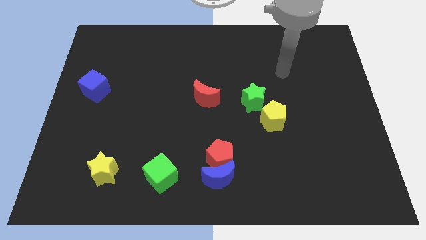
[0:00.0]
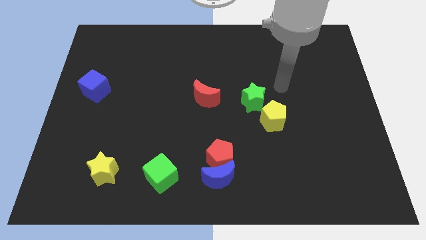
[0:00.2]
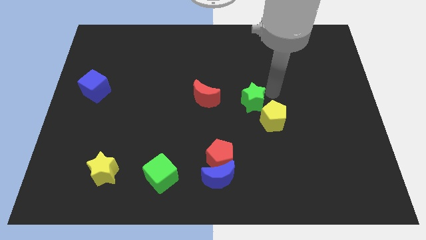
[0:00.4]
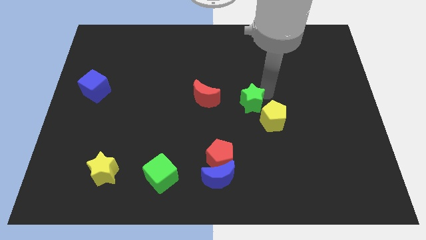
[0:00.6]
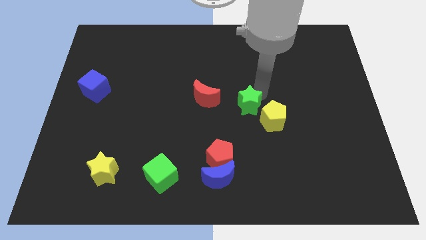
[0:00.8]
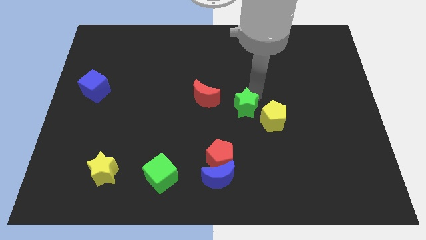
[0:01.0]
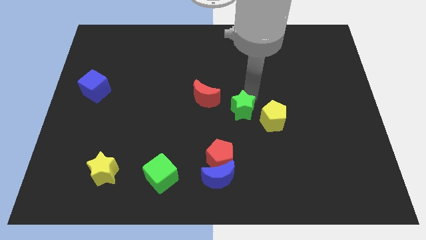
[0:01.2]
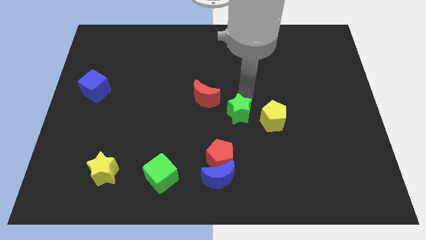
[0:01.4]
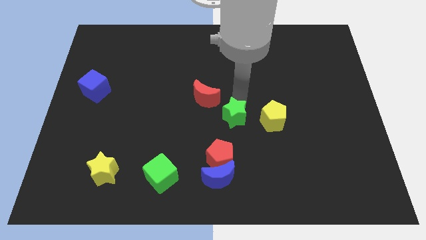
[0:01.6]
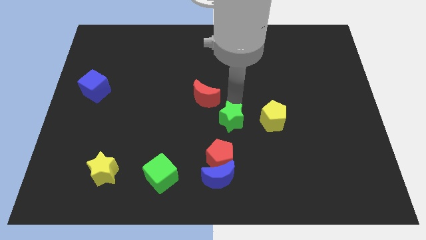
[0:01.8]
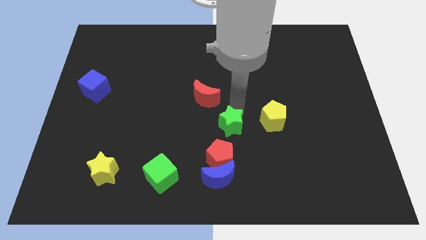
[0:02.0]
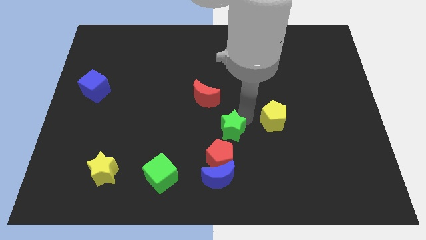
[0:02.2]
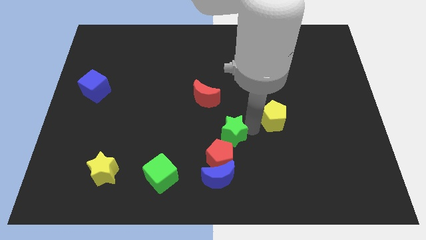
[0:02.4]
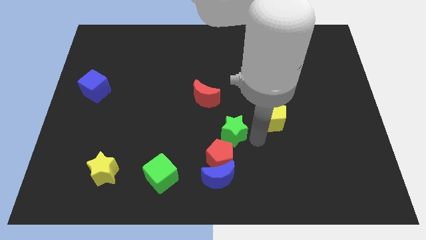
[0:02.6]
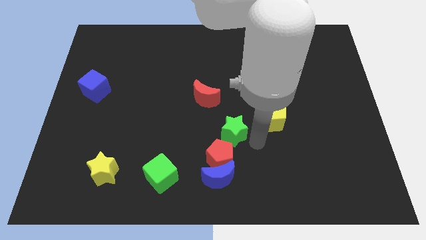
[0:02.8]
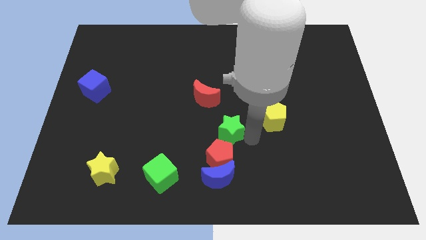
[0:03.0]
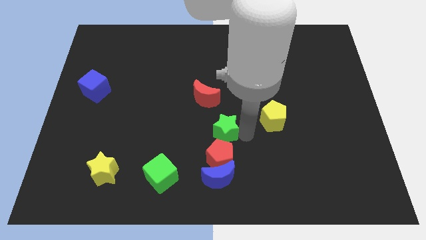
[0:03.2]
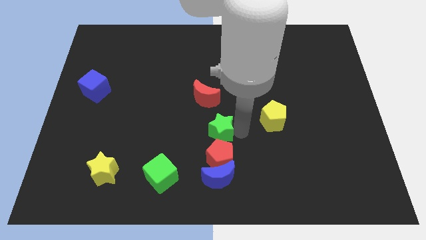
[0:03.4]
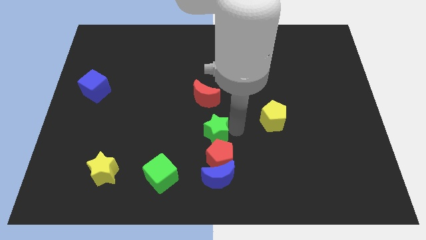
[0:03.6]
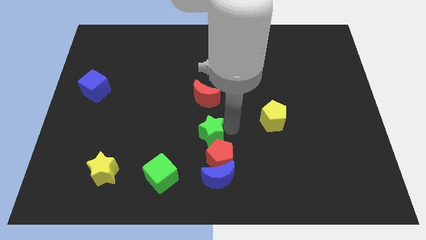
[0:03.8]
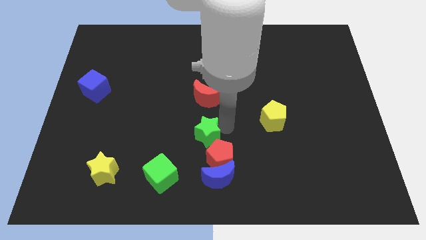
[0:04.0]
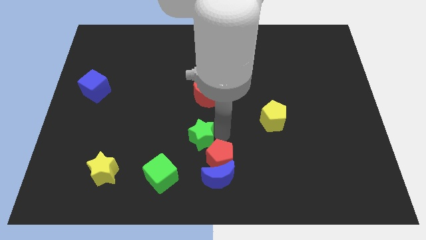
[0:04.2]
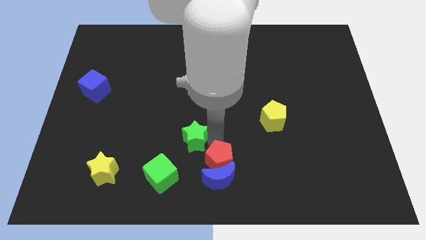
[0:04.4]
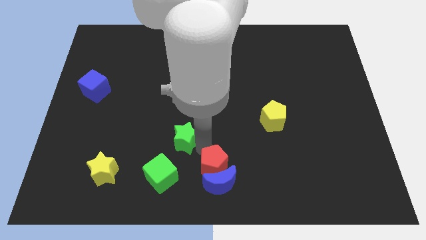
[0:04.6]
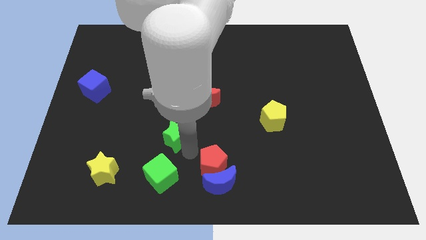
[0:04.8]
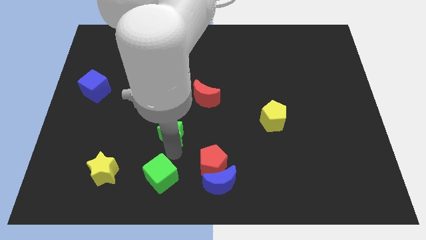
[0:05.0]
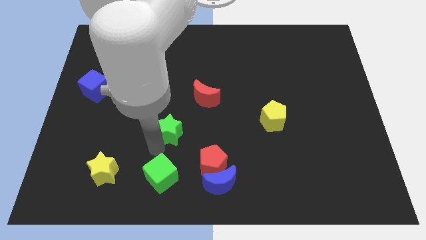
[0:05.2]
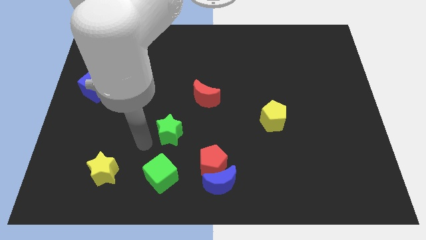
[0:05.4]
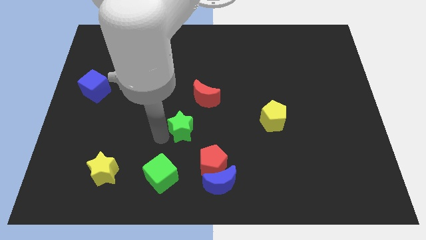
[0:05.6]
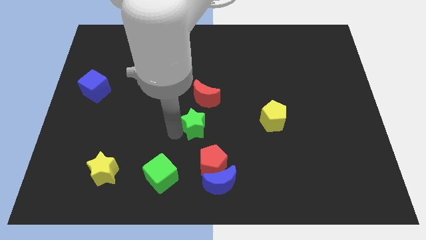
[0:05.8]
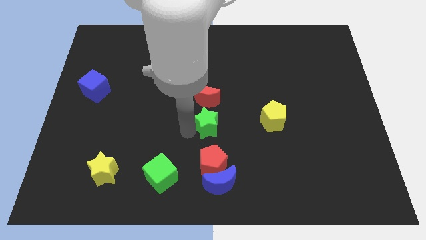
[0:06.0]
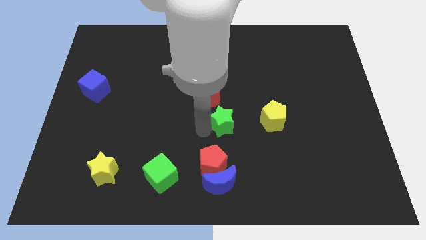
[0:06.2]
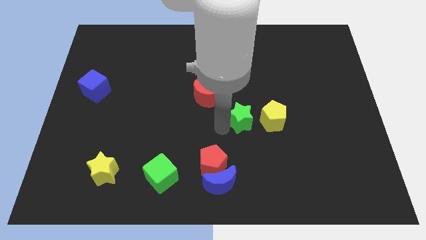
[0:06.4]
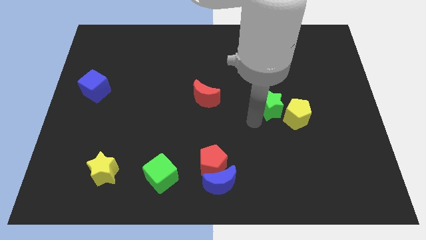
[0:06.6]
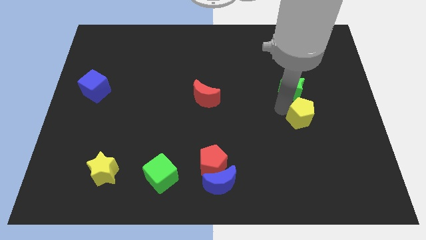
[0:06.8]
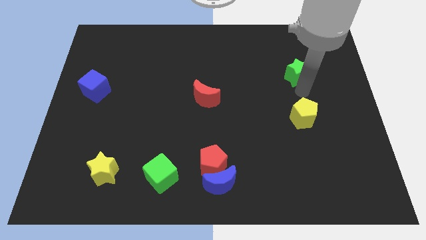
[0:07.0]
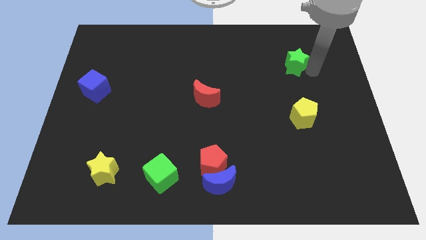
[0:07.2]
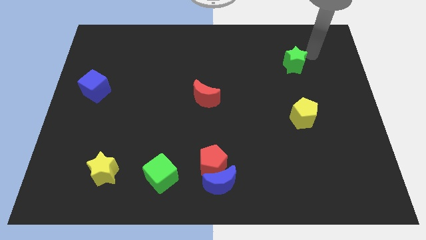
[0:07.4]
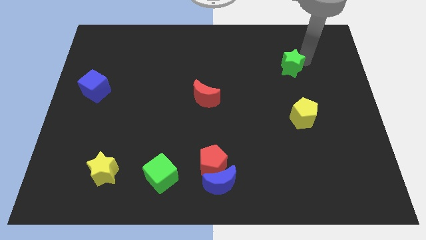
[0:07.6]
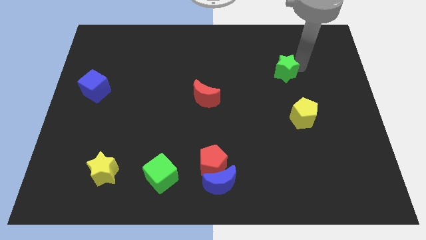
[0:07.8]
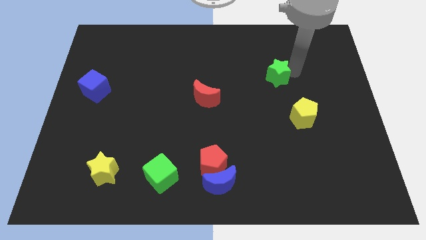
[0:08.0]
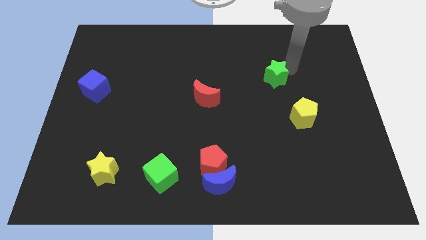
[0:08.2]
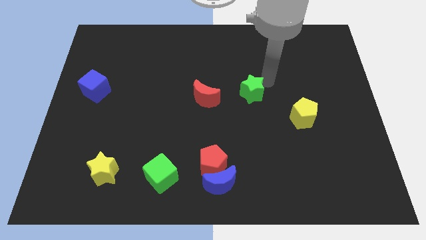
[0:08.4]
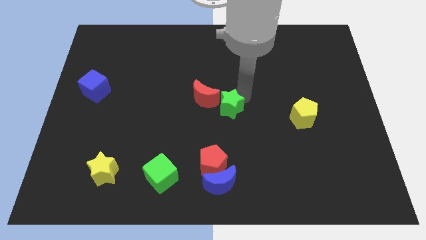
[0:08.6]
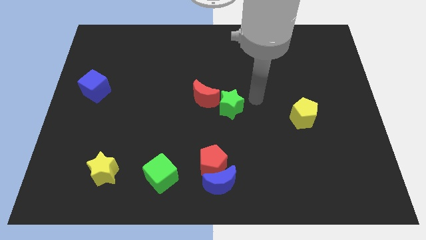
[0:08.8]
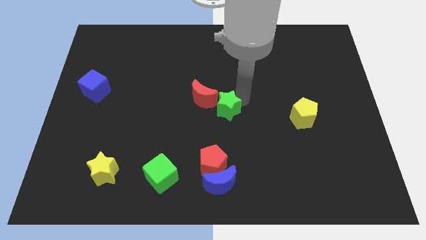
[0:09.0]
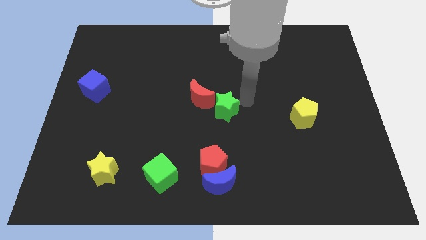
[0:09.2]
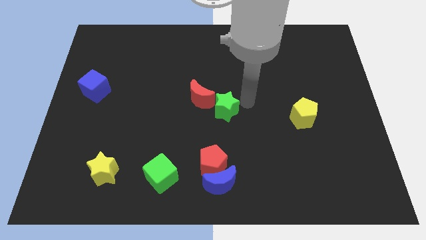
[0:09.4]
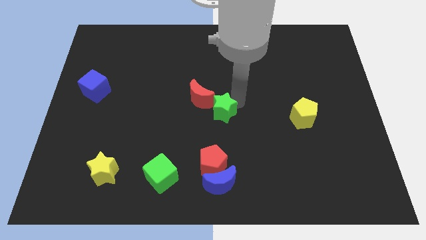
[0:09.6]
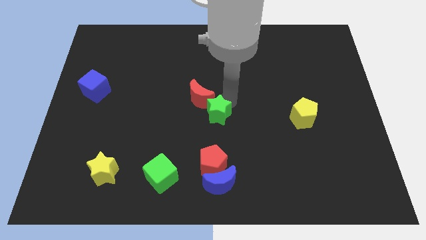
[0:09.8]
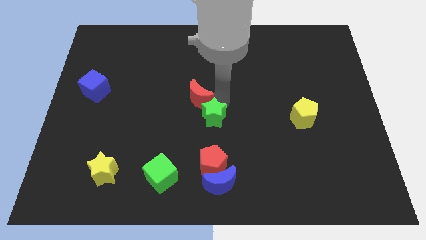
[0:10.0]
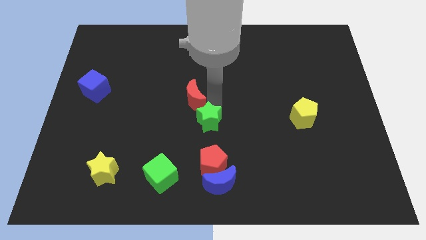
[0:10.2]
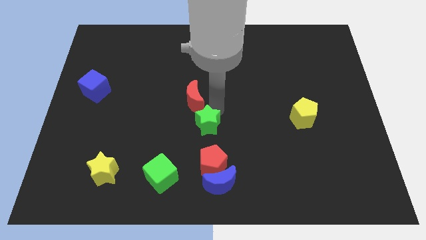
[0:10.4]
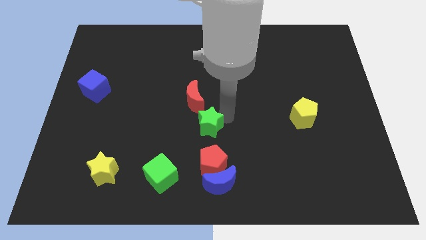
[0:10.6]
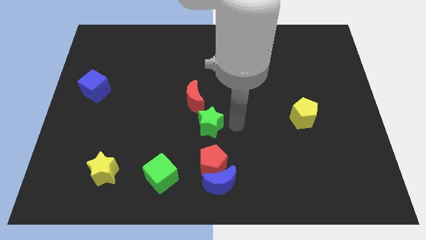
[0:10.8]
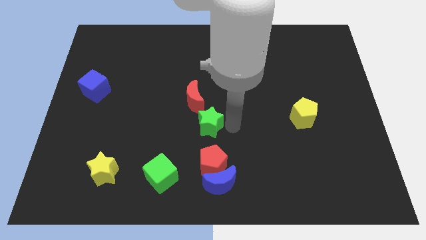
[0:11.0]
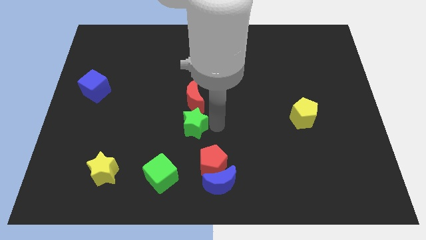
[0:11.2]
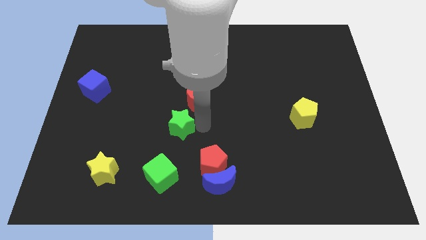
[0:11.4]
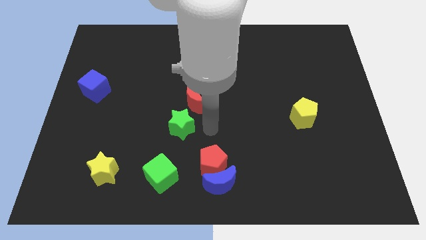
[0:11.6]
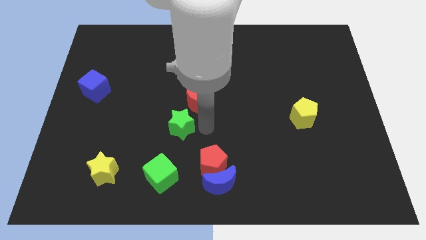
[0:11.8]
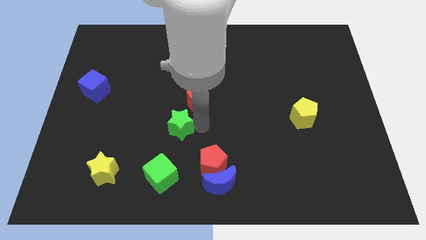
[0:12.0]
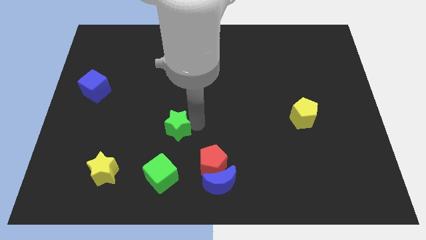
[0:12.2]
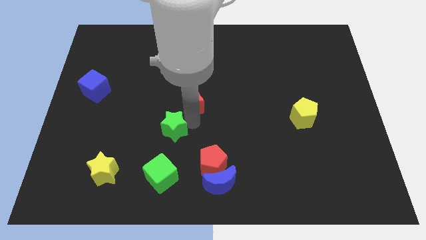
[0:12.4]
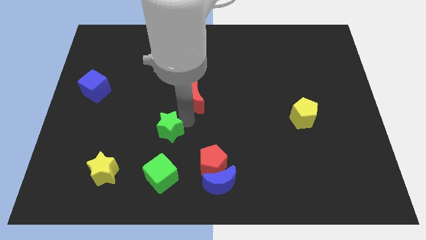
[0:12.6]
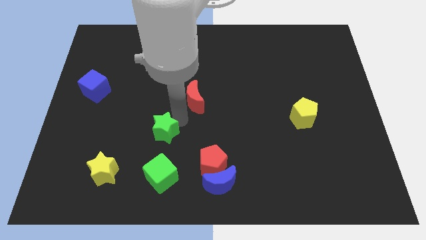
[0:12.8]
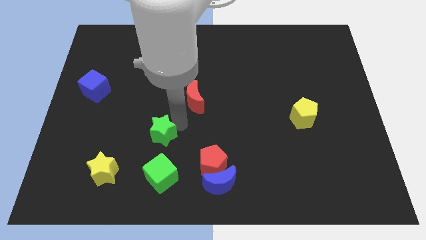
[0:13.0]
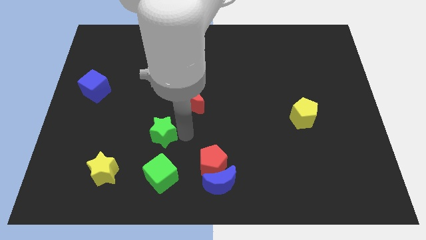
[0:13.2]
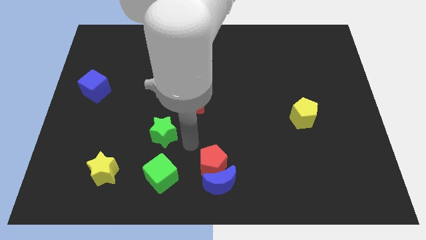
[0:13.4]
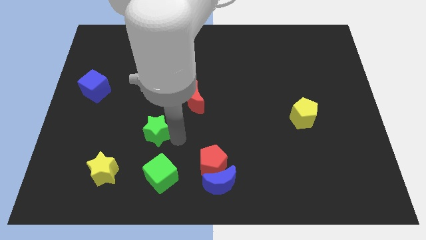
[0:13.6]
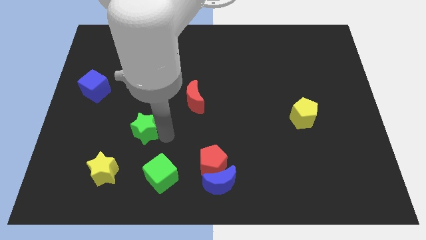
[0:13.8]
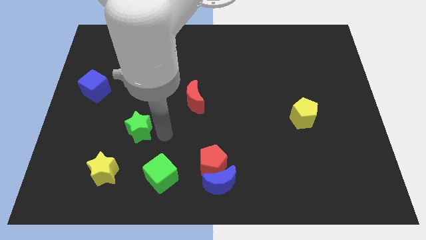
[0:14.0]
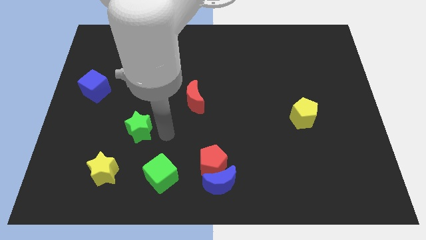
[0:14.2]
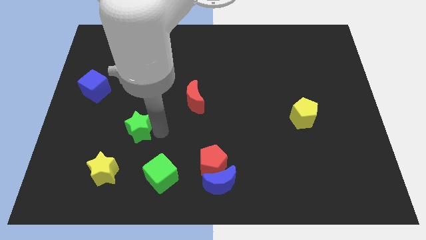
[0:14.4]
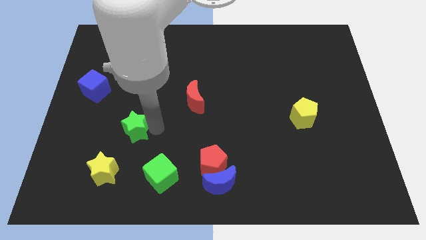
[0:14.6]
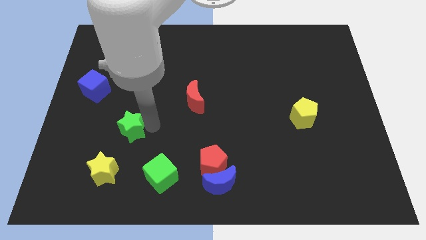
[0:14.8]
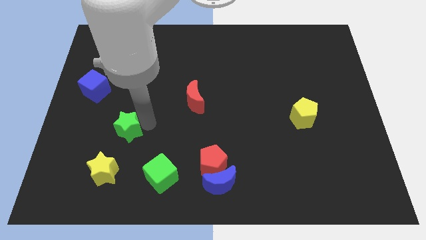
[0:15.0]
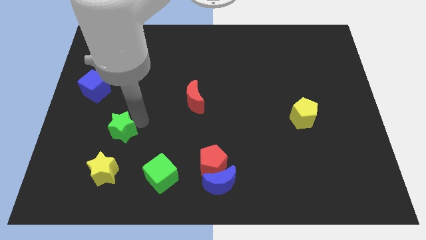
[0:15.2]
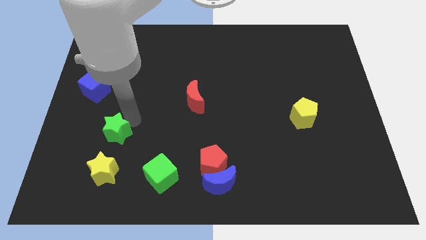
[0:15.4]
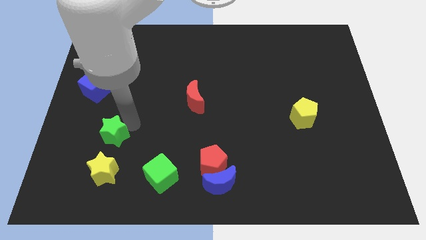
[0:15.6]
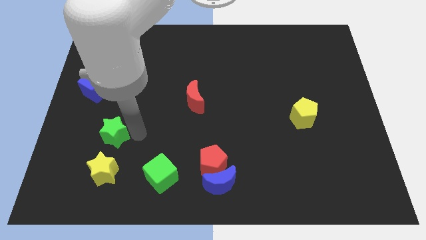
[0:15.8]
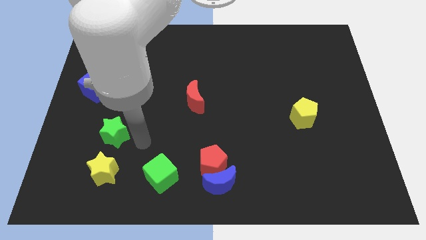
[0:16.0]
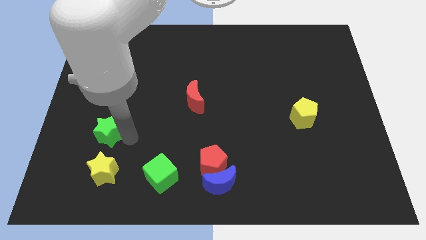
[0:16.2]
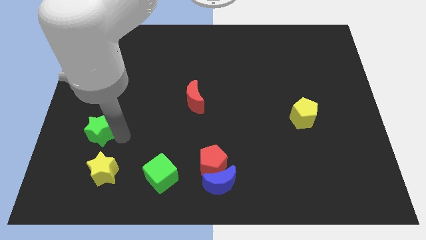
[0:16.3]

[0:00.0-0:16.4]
slide the green star to the bottom of the blue cube
